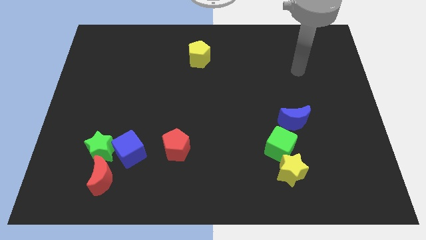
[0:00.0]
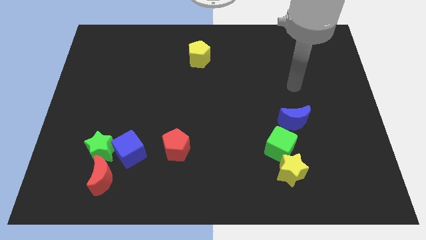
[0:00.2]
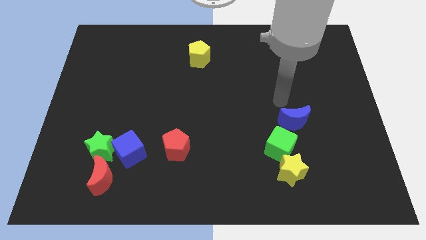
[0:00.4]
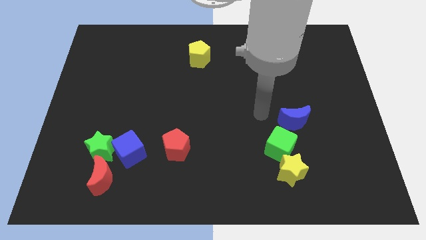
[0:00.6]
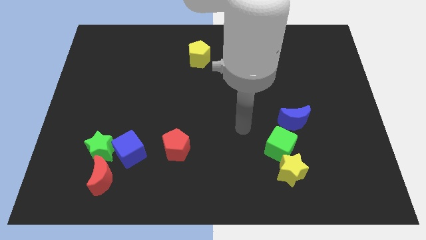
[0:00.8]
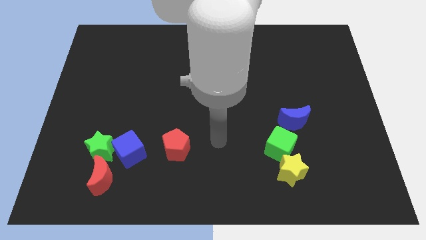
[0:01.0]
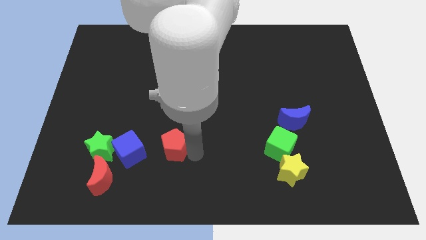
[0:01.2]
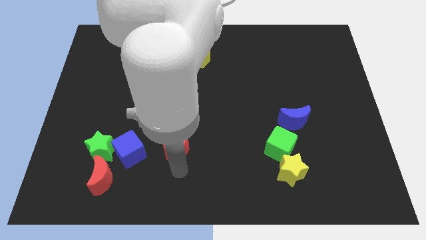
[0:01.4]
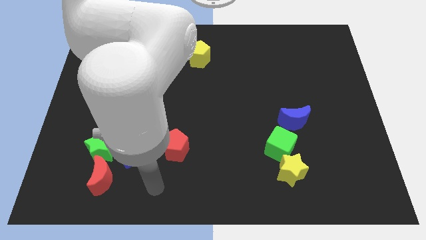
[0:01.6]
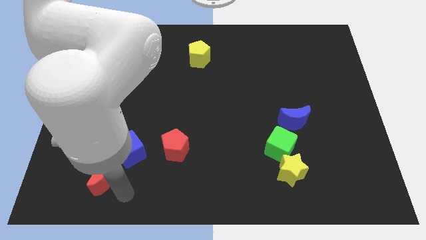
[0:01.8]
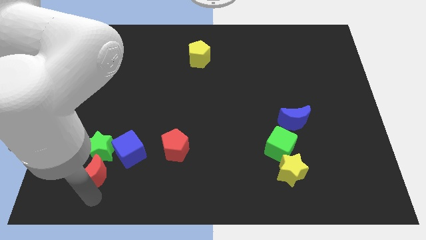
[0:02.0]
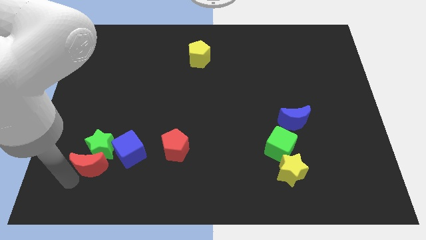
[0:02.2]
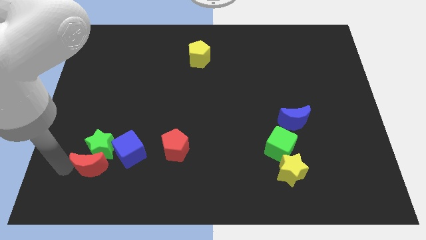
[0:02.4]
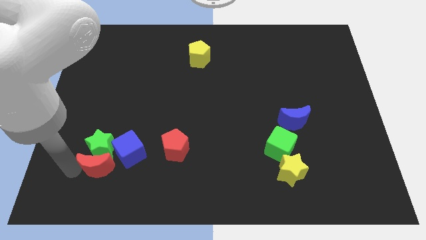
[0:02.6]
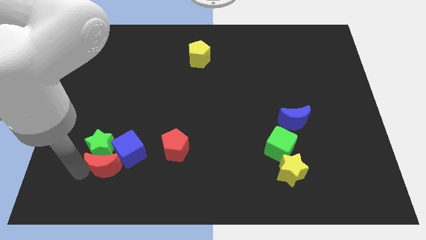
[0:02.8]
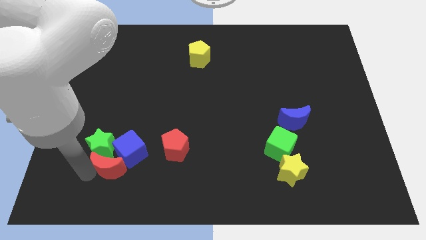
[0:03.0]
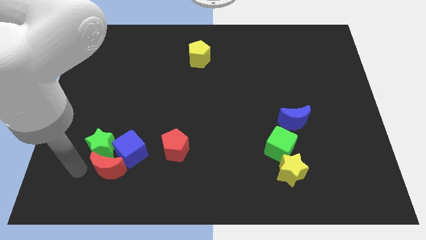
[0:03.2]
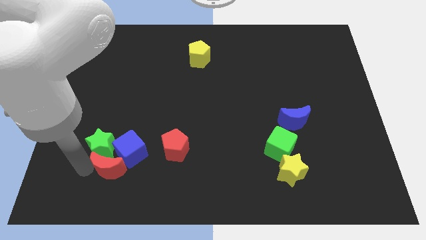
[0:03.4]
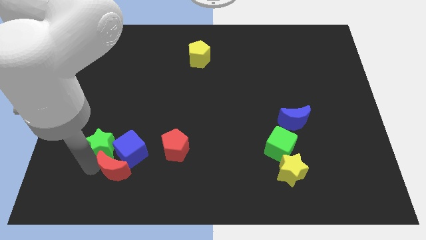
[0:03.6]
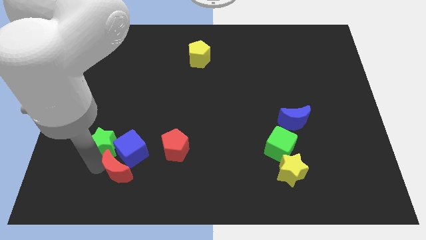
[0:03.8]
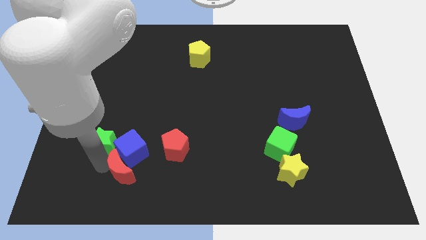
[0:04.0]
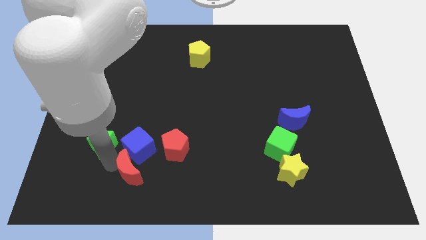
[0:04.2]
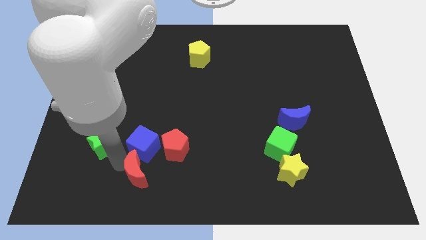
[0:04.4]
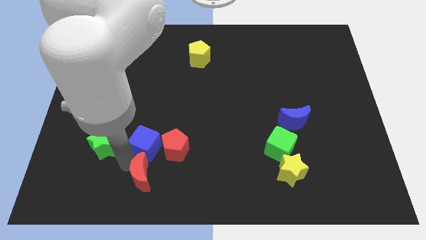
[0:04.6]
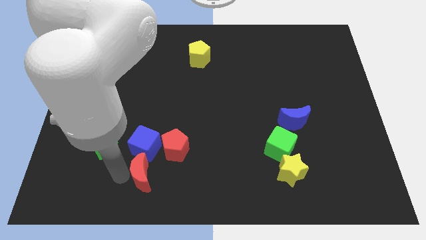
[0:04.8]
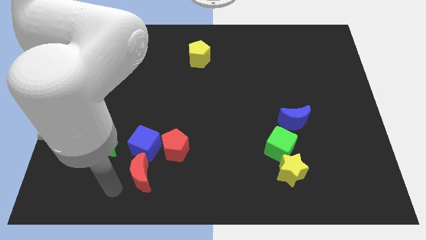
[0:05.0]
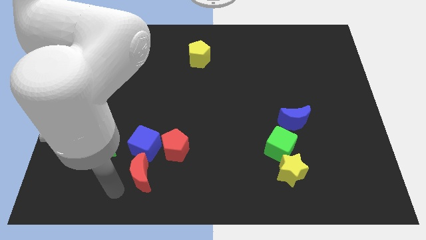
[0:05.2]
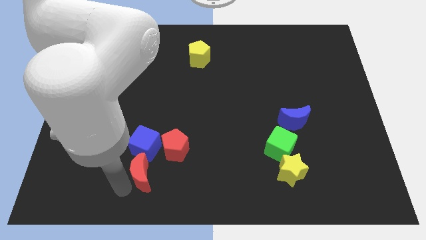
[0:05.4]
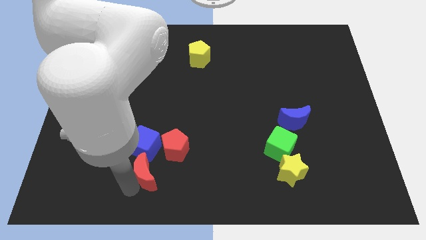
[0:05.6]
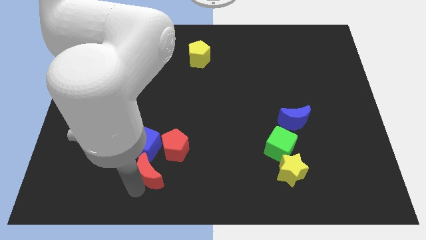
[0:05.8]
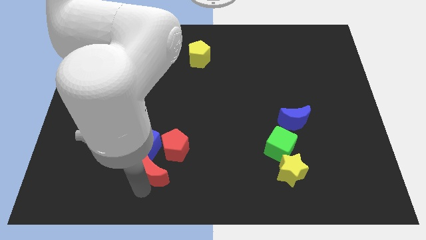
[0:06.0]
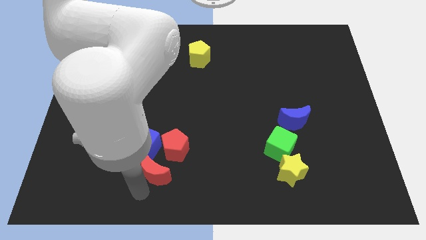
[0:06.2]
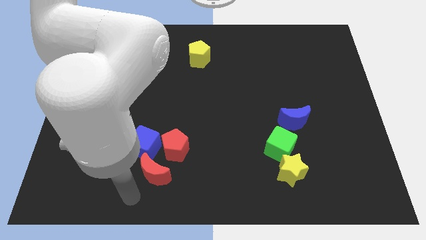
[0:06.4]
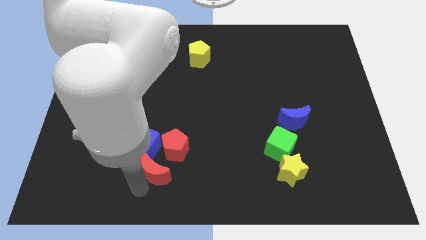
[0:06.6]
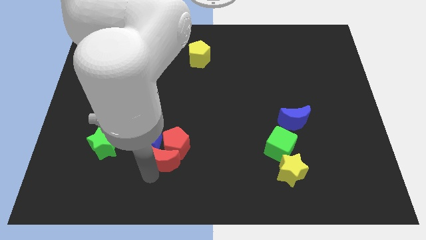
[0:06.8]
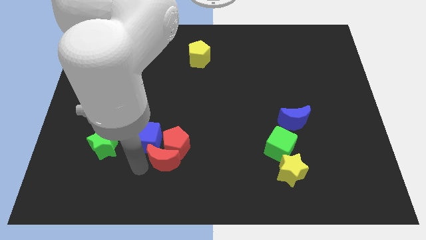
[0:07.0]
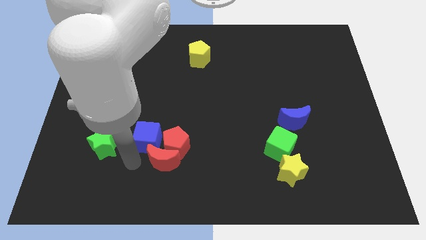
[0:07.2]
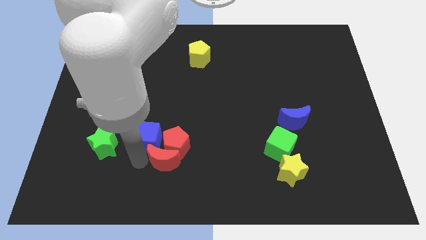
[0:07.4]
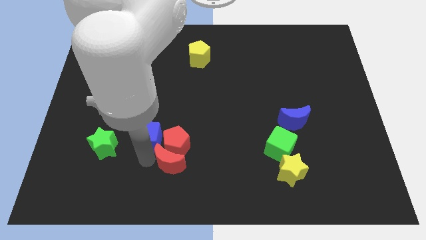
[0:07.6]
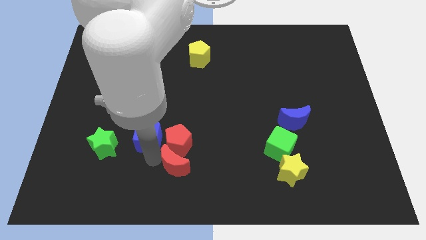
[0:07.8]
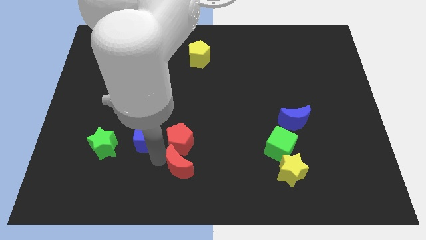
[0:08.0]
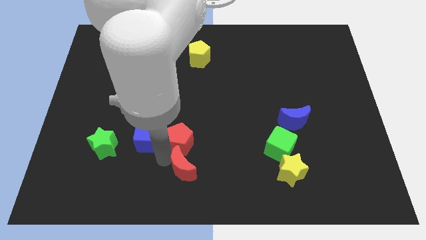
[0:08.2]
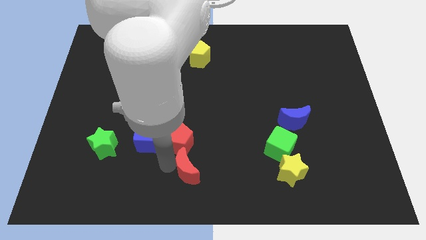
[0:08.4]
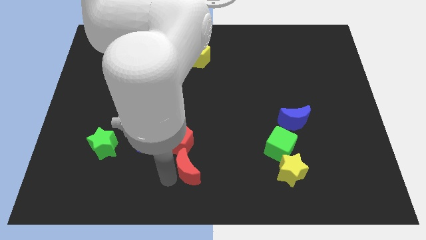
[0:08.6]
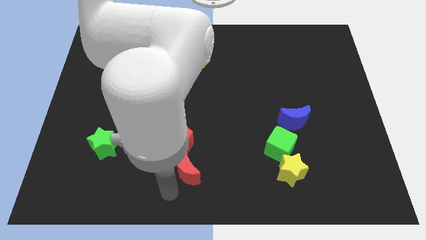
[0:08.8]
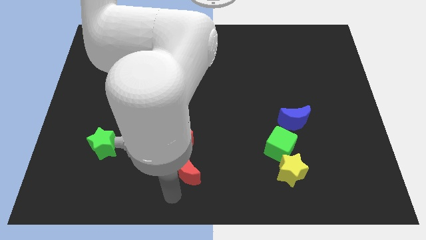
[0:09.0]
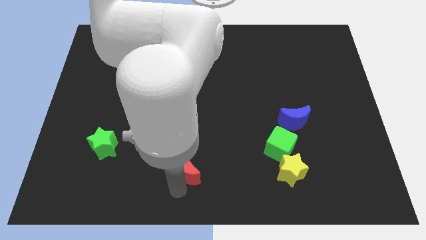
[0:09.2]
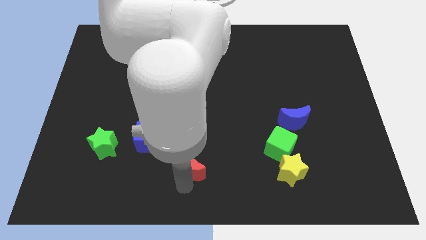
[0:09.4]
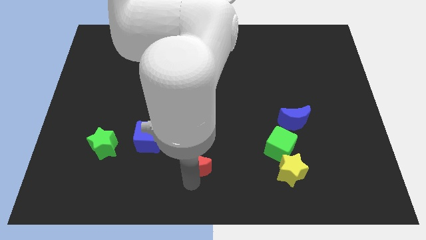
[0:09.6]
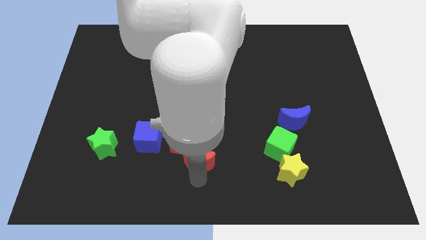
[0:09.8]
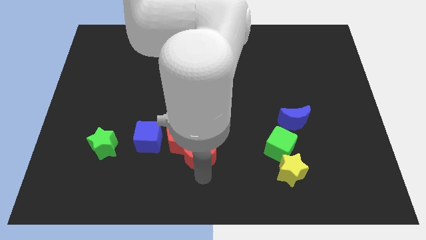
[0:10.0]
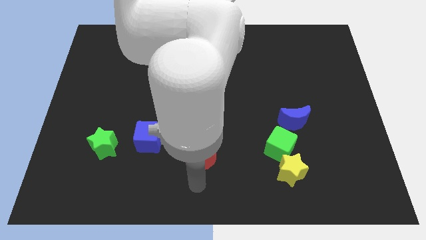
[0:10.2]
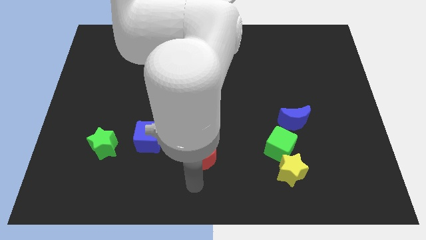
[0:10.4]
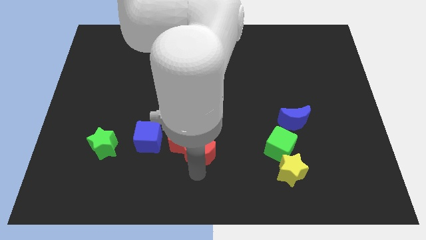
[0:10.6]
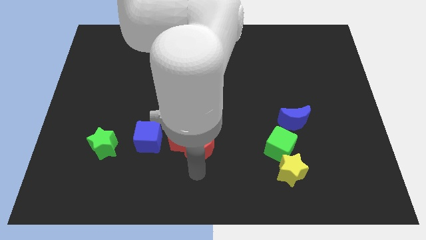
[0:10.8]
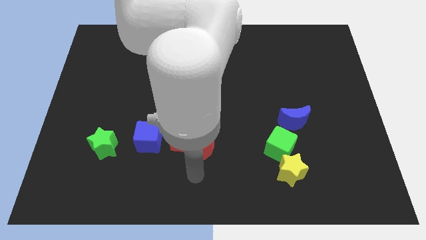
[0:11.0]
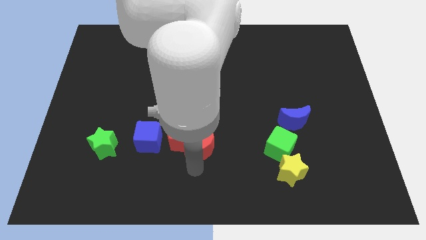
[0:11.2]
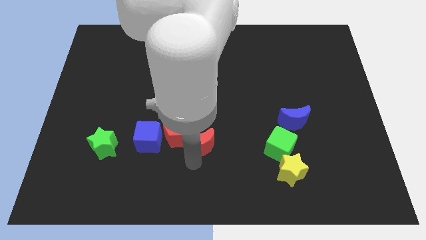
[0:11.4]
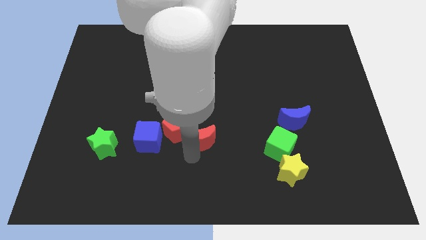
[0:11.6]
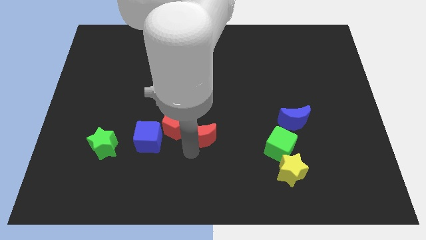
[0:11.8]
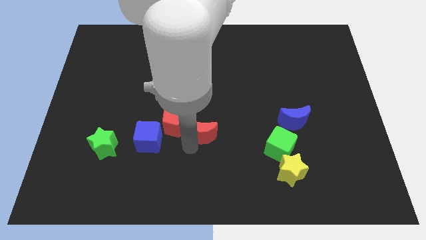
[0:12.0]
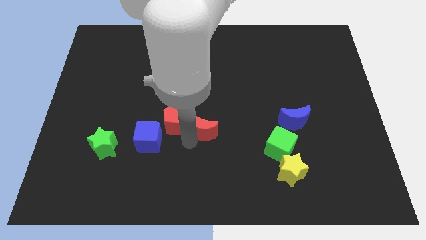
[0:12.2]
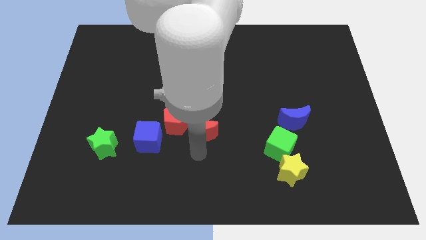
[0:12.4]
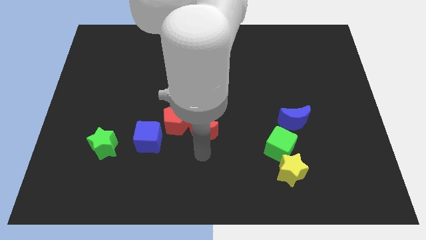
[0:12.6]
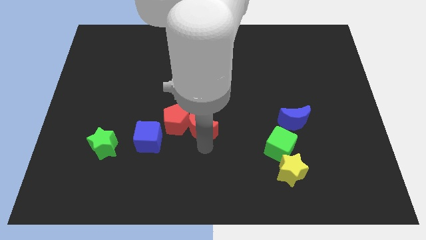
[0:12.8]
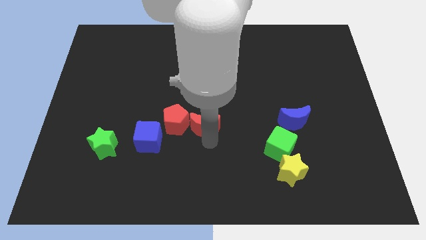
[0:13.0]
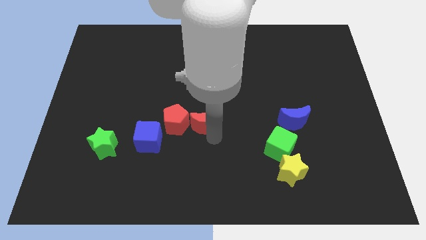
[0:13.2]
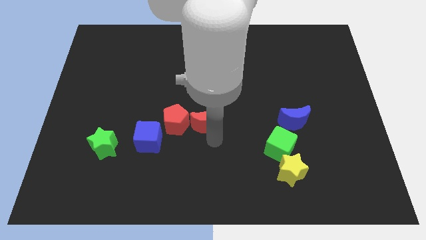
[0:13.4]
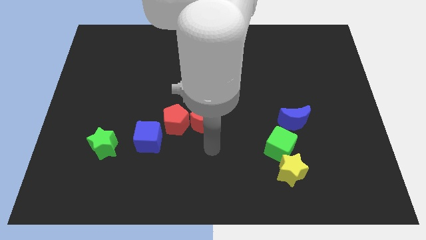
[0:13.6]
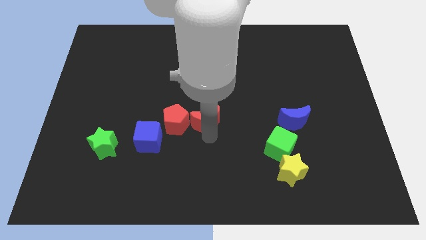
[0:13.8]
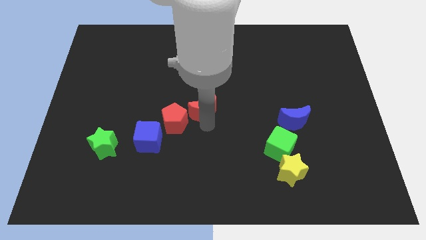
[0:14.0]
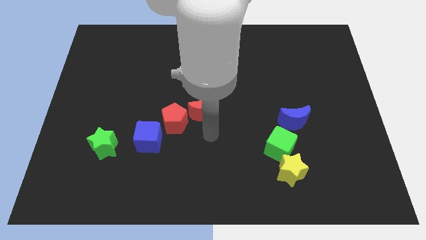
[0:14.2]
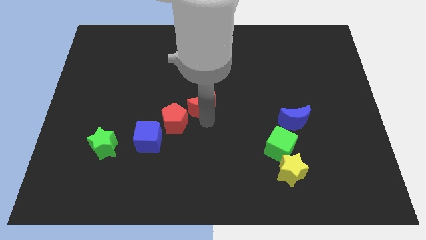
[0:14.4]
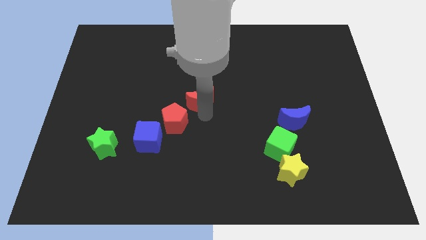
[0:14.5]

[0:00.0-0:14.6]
move the red moon to the bottom of the yellow pentagon

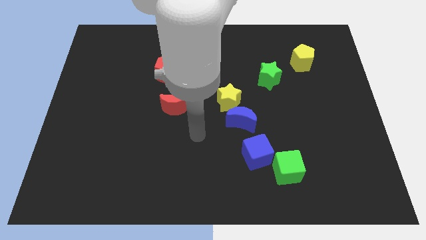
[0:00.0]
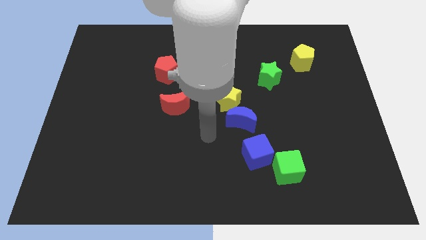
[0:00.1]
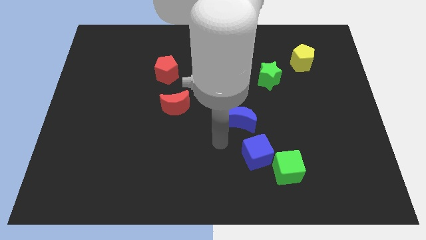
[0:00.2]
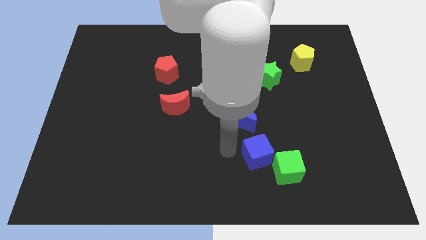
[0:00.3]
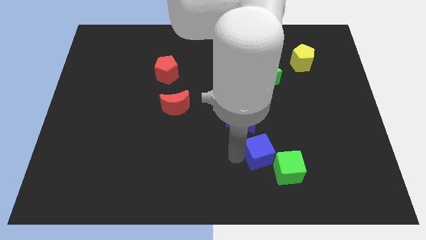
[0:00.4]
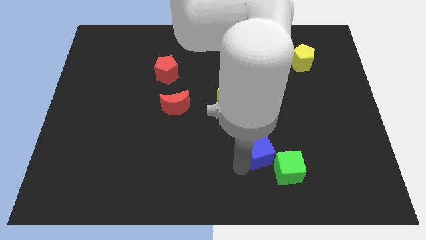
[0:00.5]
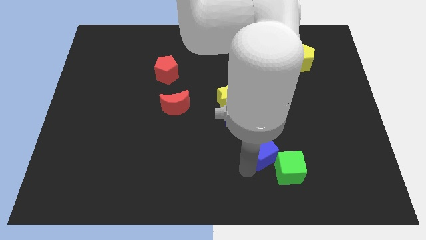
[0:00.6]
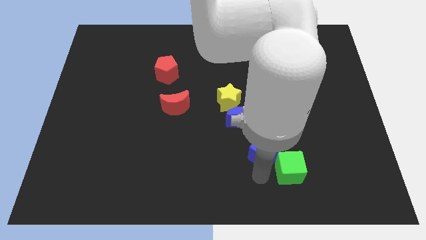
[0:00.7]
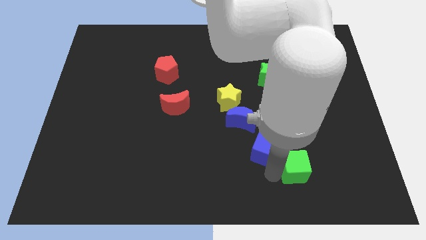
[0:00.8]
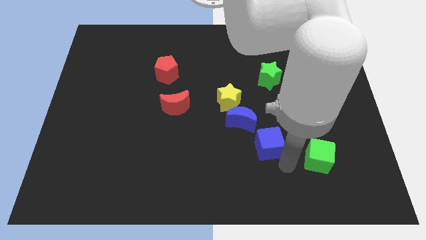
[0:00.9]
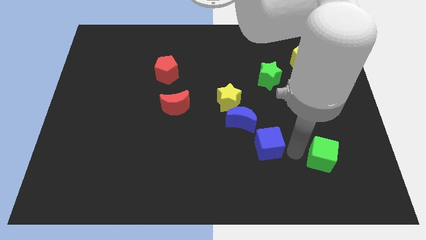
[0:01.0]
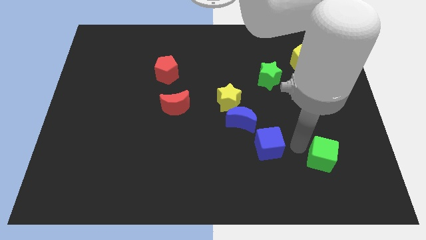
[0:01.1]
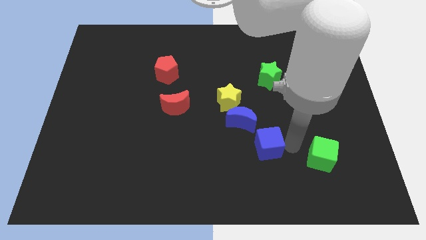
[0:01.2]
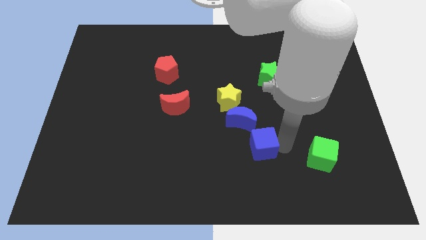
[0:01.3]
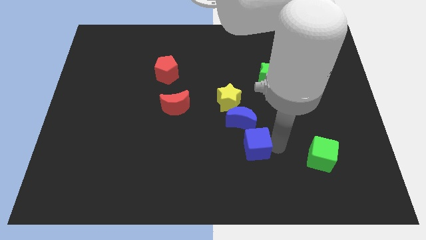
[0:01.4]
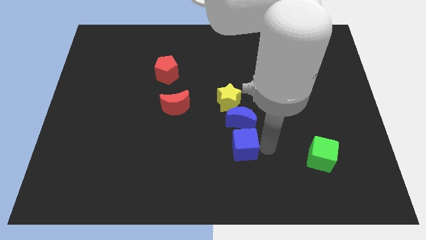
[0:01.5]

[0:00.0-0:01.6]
push the blue cube to the bottom left side of the blue moon
